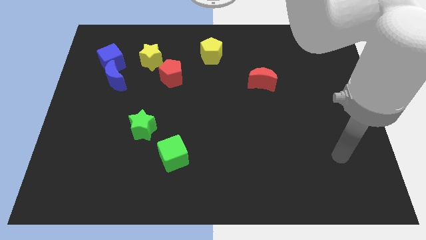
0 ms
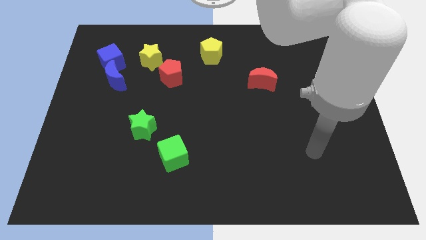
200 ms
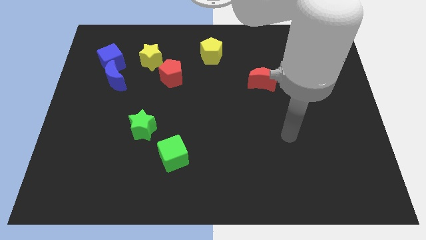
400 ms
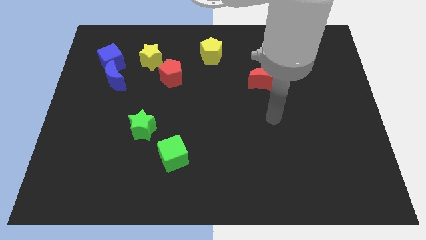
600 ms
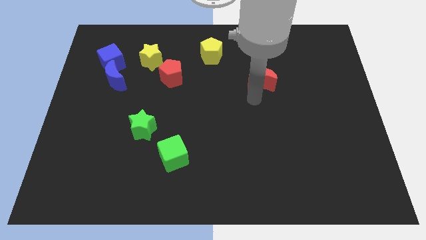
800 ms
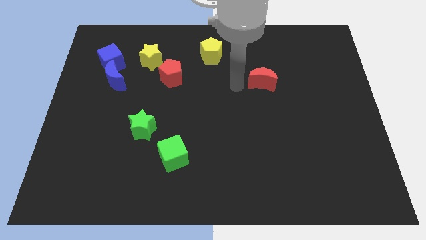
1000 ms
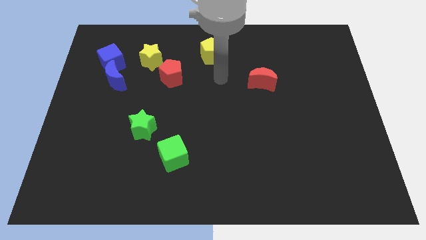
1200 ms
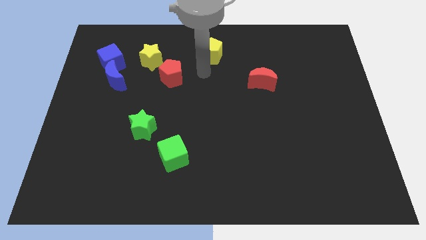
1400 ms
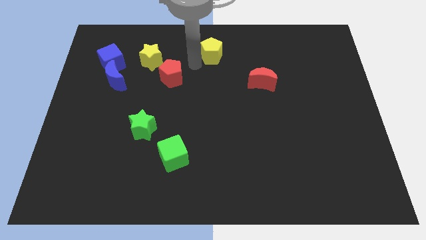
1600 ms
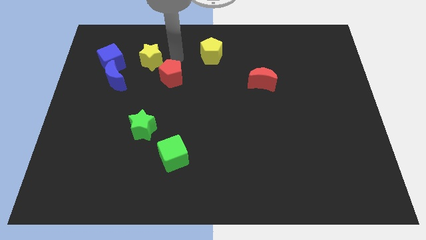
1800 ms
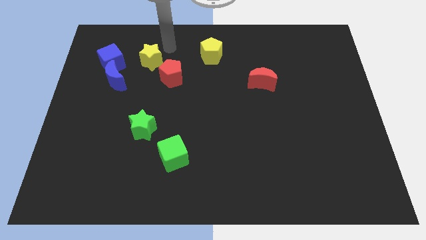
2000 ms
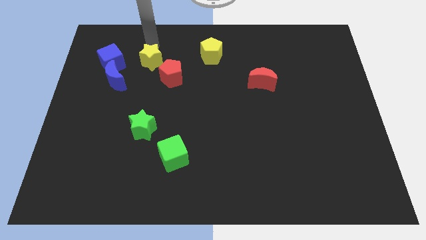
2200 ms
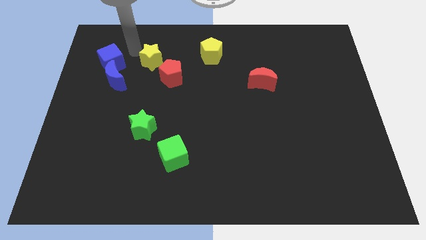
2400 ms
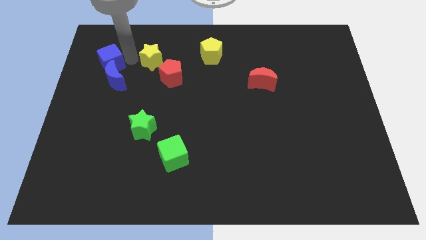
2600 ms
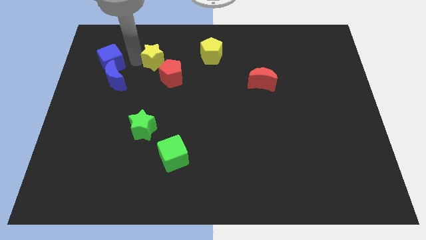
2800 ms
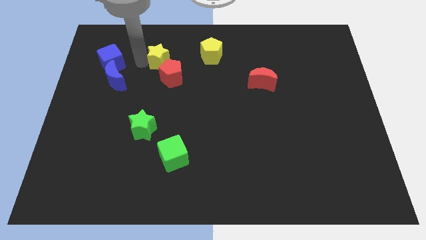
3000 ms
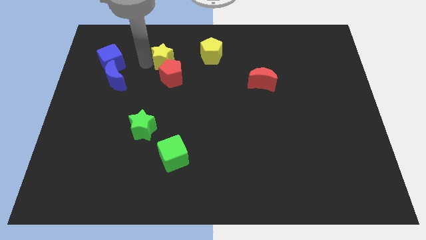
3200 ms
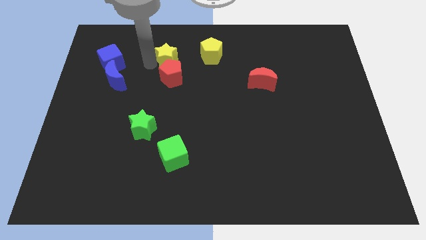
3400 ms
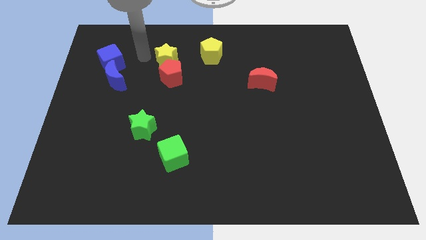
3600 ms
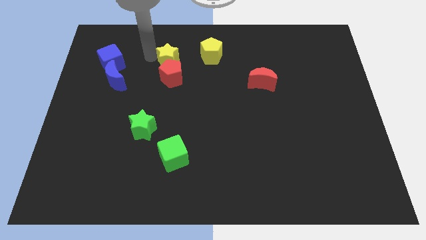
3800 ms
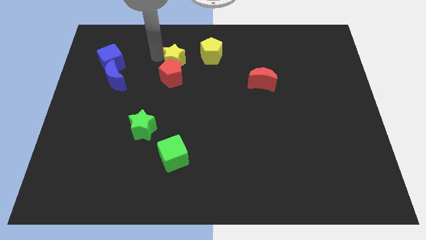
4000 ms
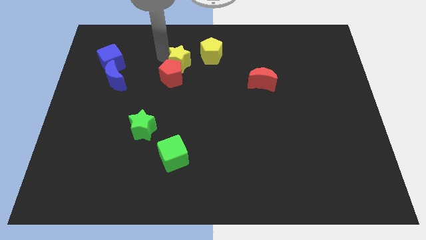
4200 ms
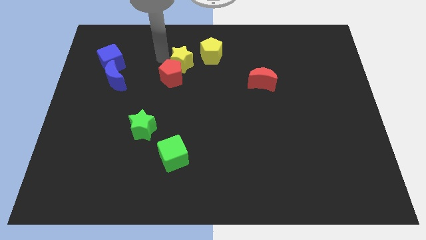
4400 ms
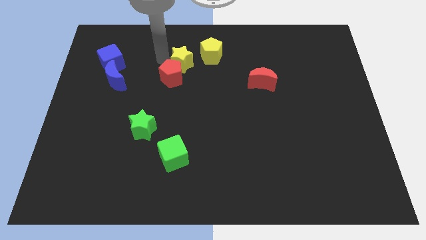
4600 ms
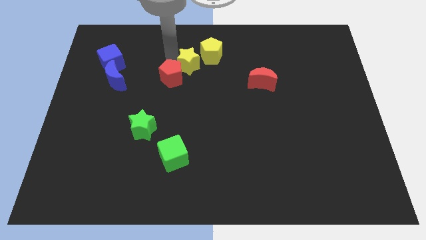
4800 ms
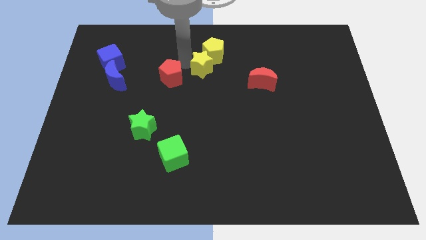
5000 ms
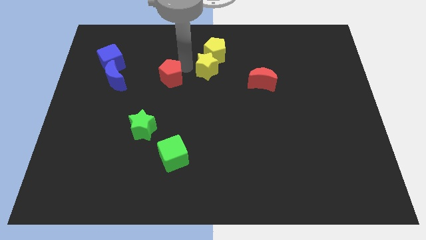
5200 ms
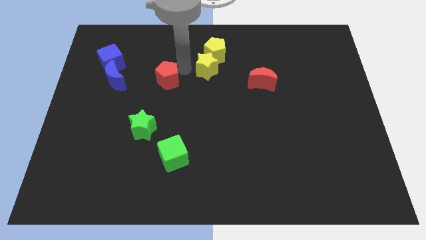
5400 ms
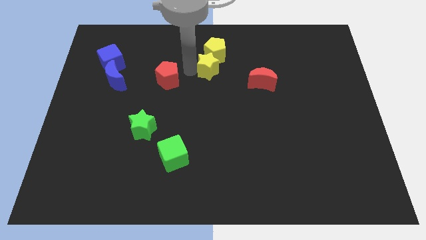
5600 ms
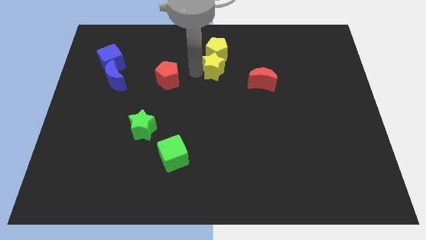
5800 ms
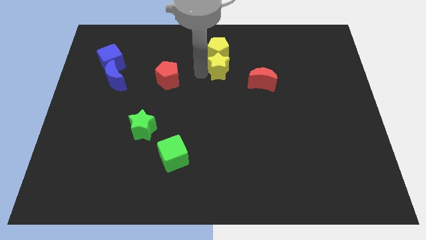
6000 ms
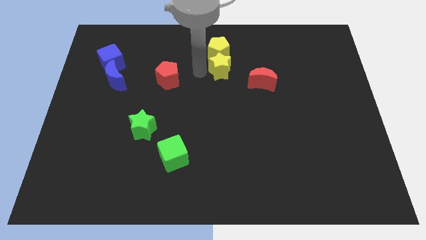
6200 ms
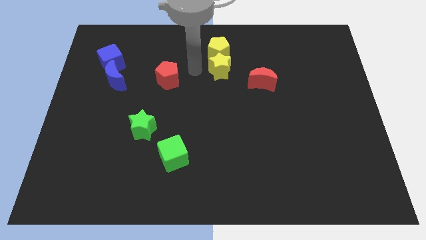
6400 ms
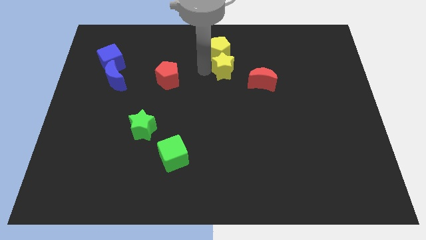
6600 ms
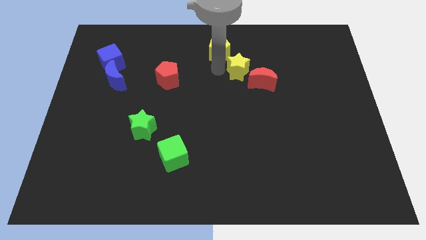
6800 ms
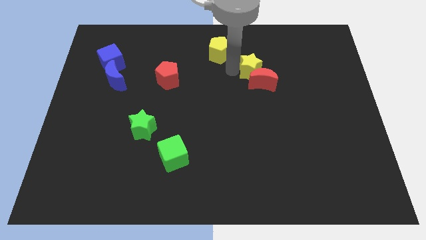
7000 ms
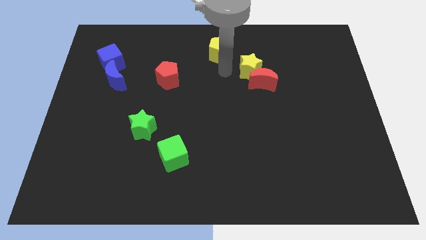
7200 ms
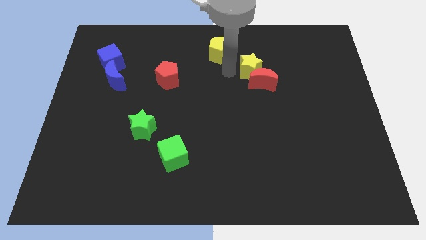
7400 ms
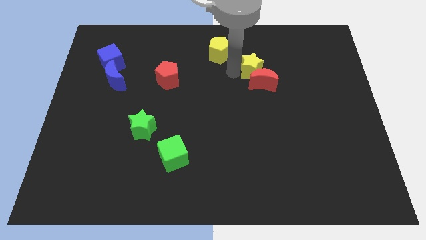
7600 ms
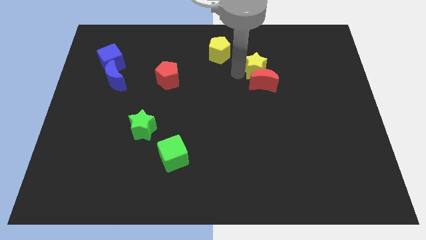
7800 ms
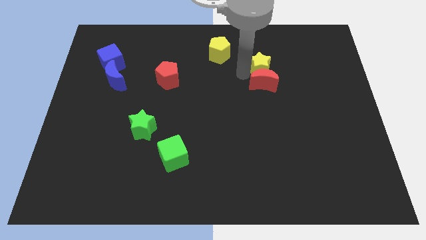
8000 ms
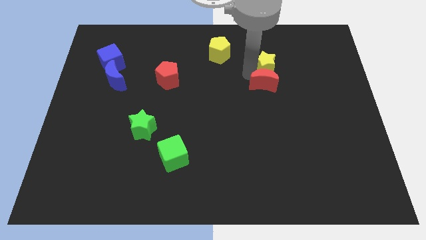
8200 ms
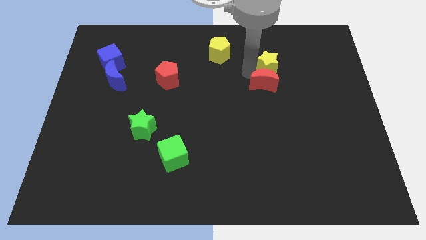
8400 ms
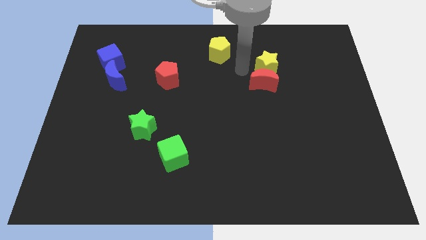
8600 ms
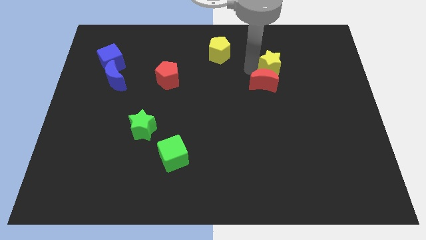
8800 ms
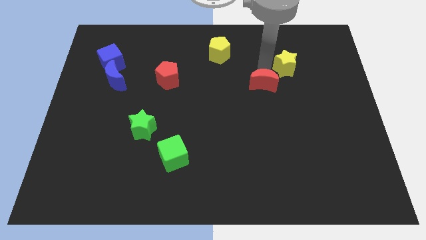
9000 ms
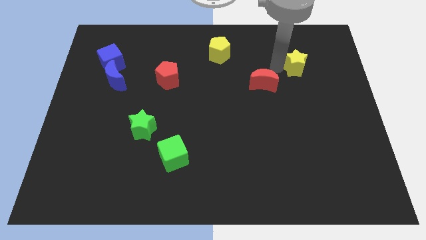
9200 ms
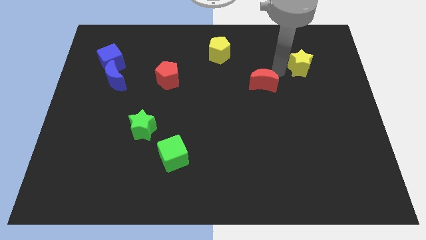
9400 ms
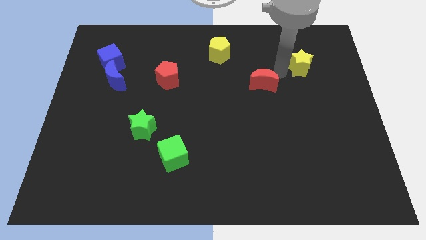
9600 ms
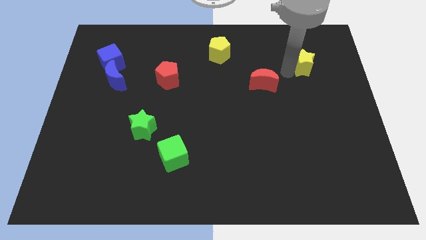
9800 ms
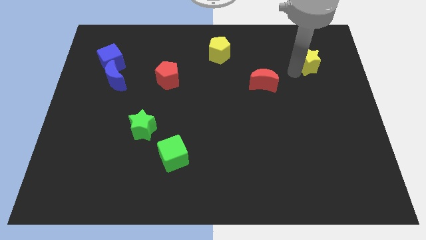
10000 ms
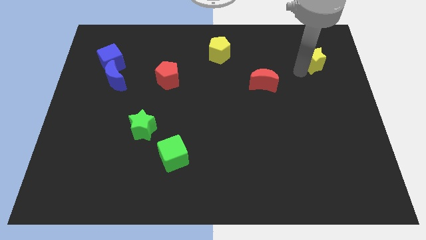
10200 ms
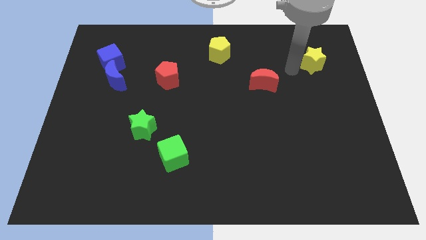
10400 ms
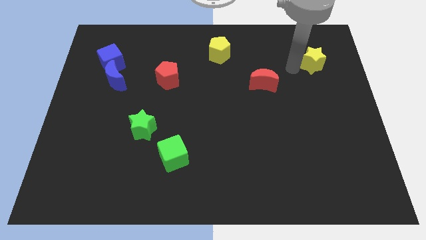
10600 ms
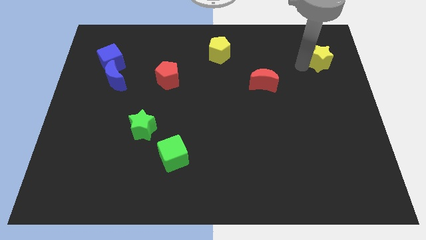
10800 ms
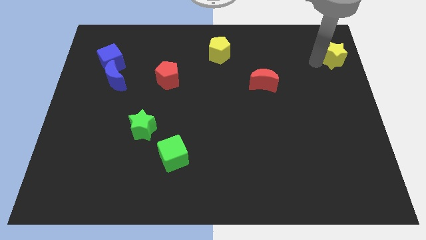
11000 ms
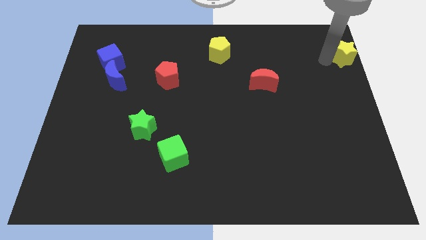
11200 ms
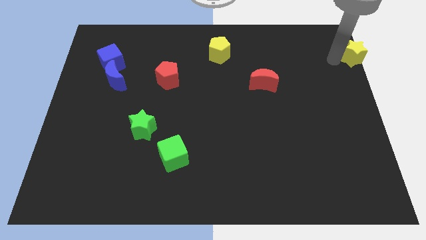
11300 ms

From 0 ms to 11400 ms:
put the yellow star to the upper right corner

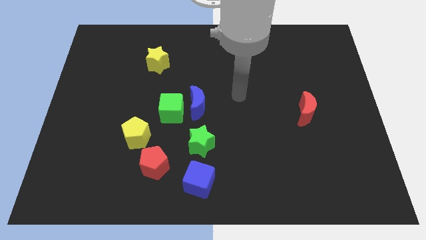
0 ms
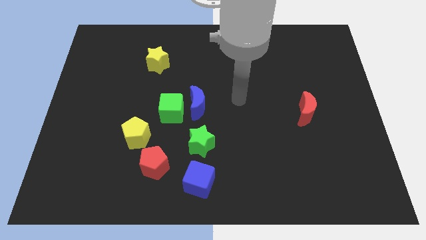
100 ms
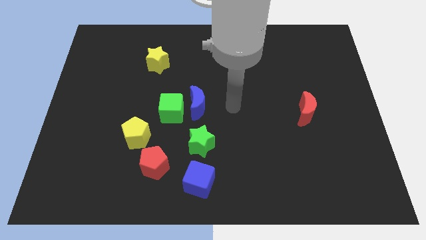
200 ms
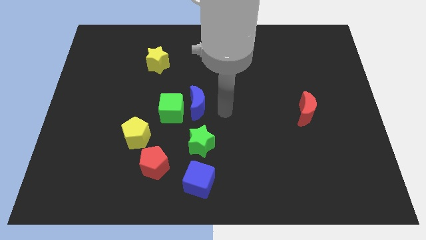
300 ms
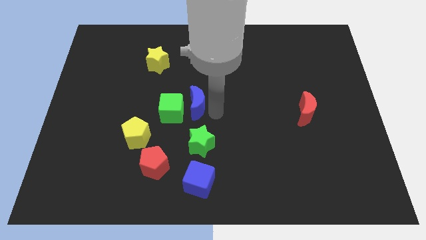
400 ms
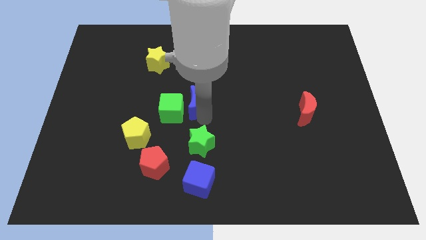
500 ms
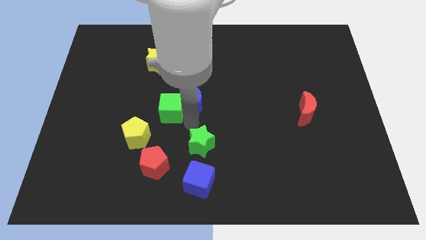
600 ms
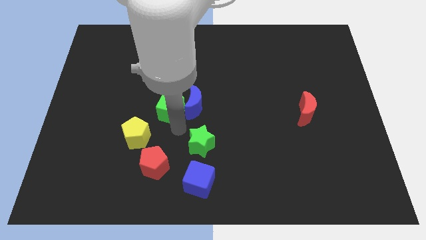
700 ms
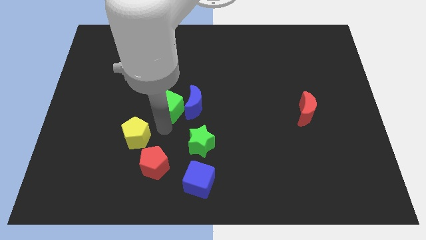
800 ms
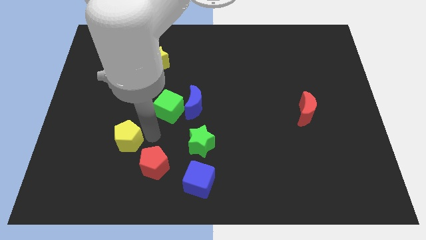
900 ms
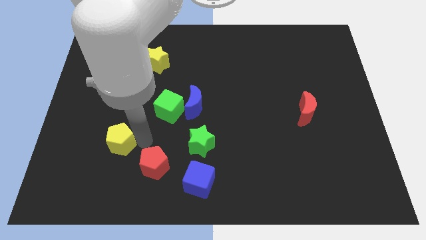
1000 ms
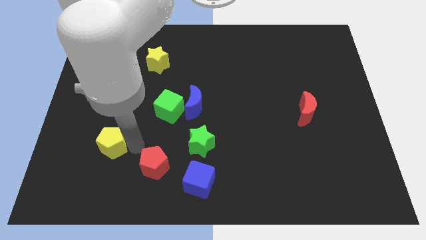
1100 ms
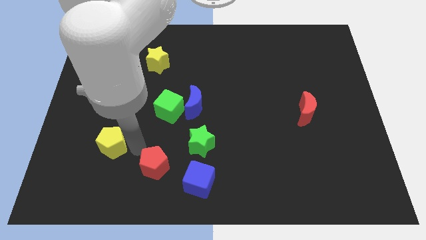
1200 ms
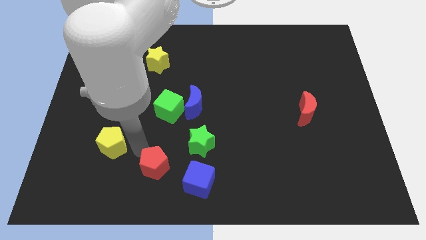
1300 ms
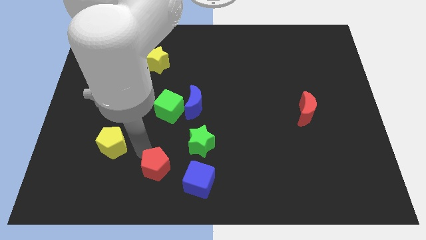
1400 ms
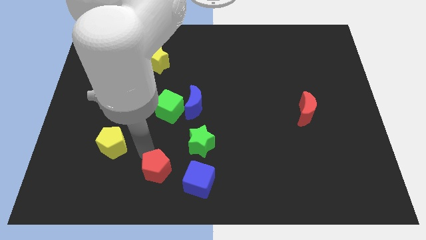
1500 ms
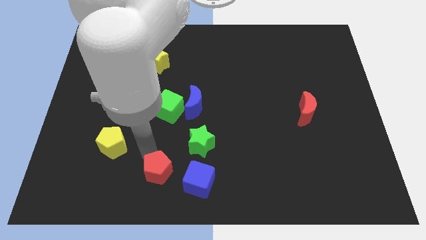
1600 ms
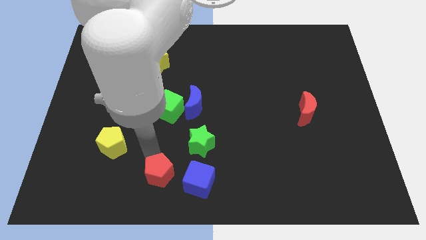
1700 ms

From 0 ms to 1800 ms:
slide the red pentagon to the bottom side
